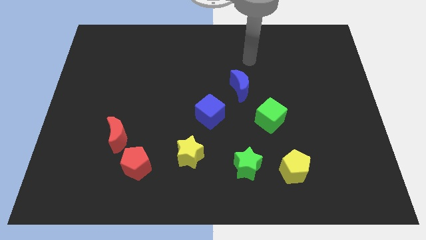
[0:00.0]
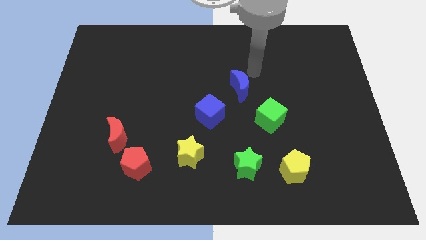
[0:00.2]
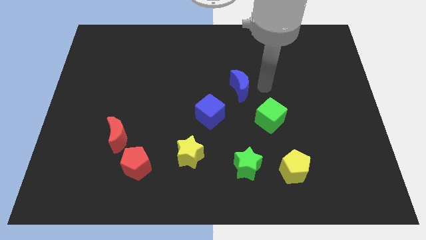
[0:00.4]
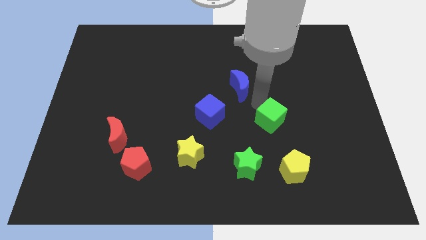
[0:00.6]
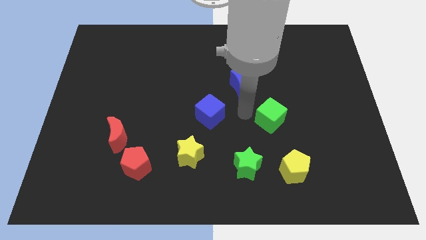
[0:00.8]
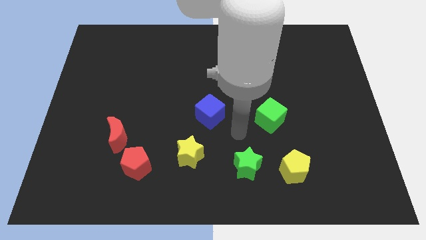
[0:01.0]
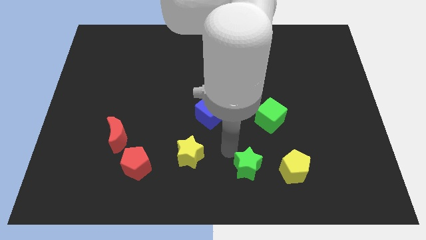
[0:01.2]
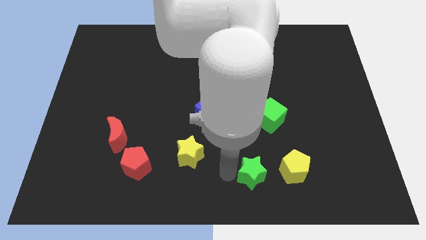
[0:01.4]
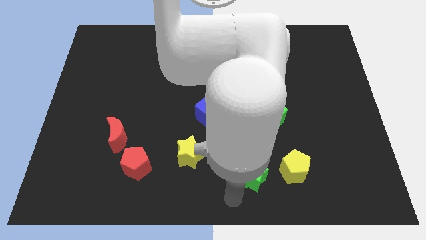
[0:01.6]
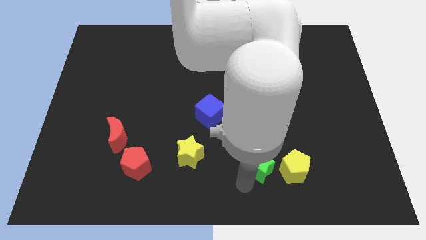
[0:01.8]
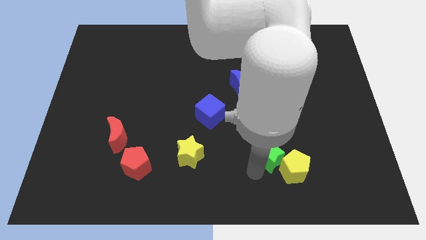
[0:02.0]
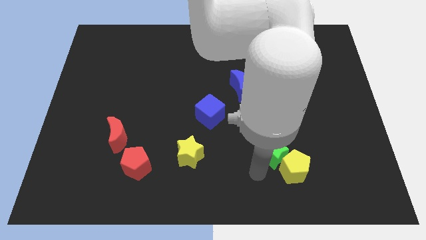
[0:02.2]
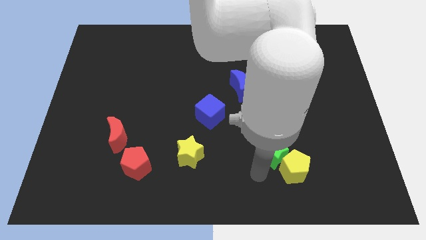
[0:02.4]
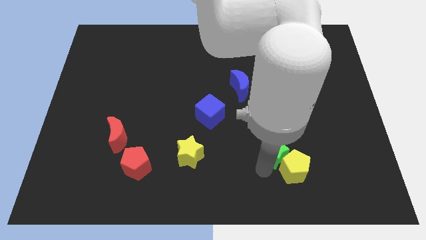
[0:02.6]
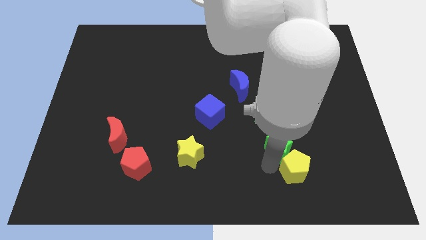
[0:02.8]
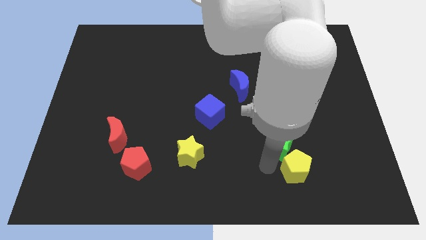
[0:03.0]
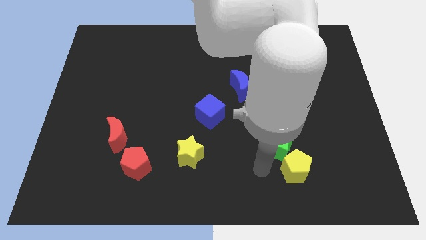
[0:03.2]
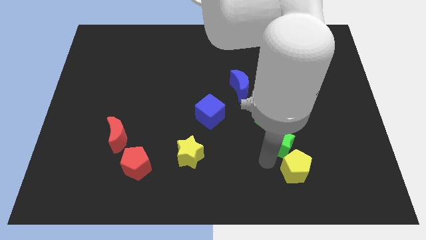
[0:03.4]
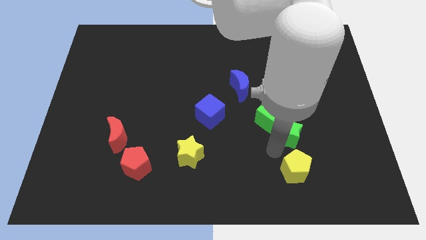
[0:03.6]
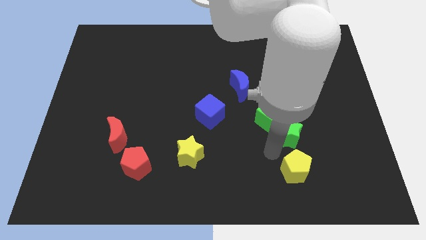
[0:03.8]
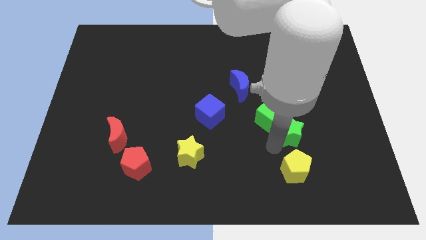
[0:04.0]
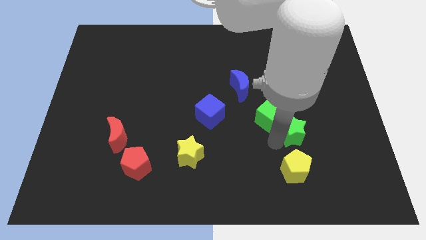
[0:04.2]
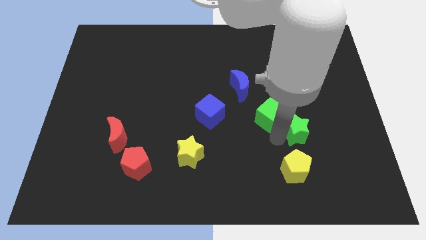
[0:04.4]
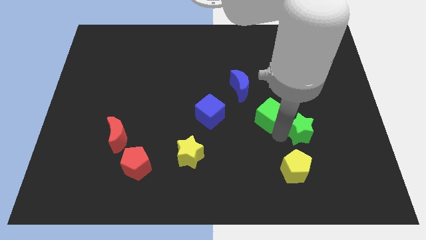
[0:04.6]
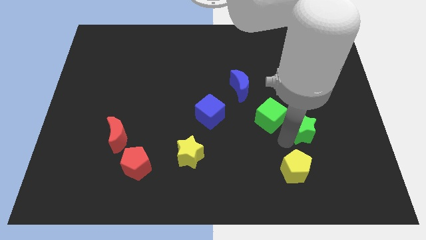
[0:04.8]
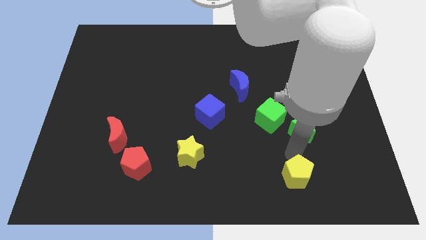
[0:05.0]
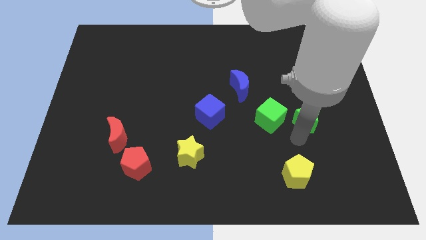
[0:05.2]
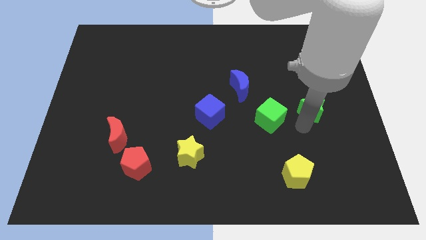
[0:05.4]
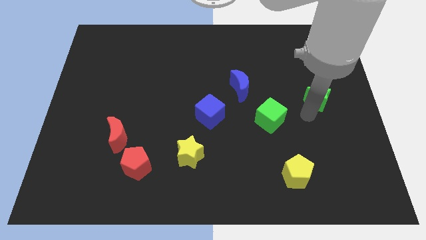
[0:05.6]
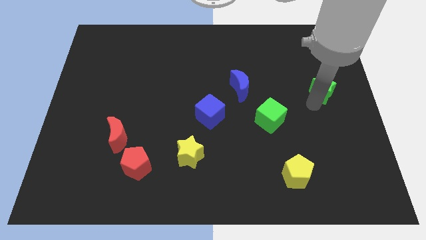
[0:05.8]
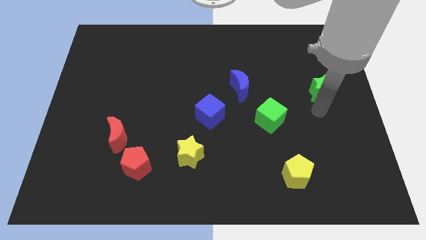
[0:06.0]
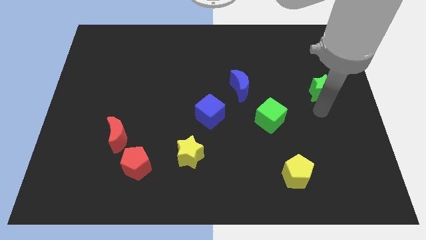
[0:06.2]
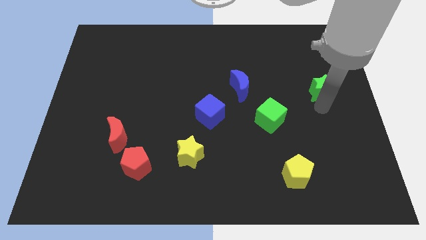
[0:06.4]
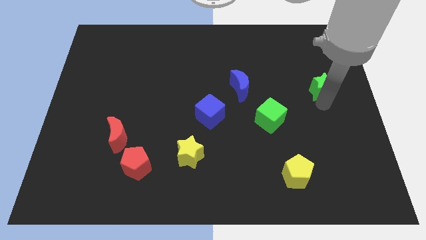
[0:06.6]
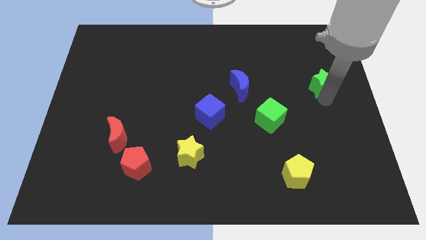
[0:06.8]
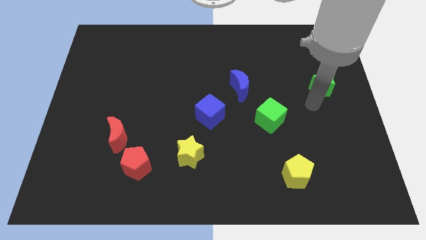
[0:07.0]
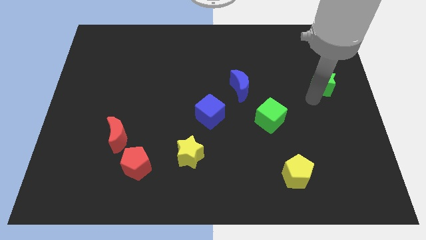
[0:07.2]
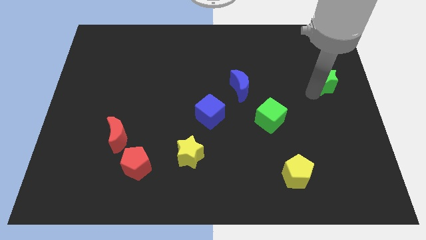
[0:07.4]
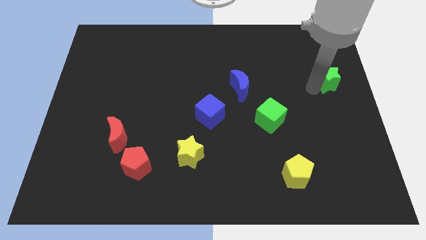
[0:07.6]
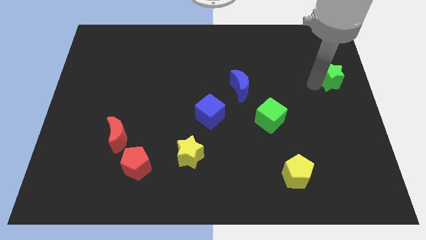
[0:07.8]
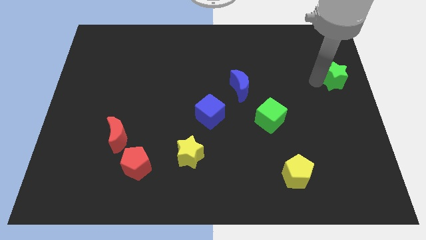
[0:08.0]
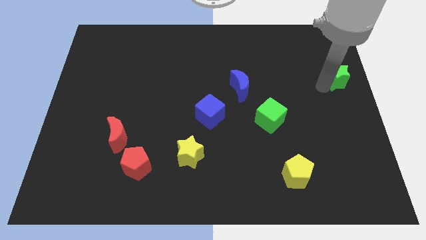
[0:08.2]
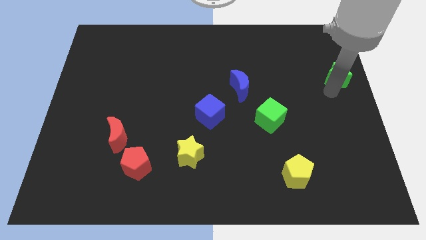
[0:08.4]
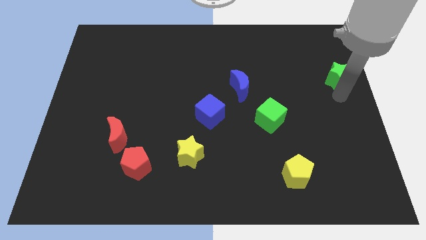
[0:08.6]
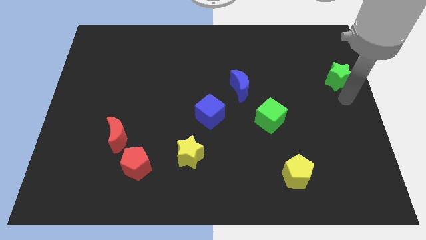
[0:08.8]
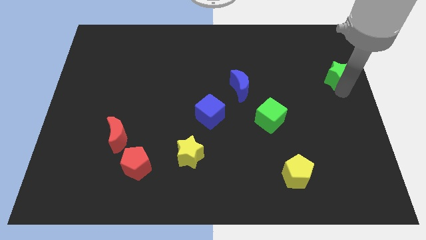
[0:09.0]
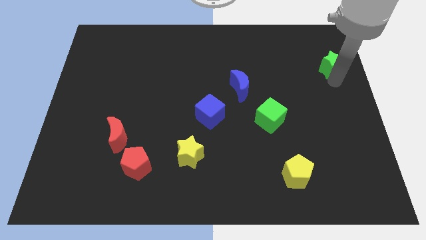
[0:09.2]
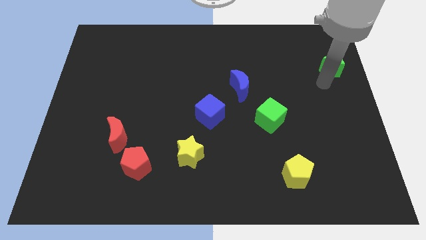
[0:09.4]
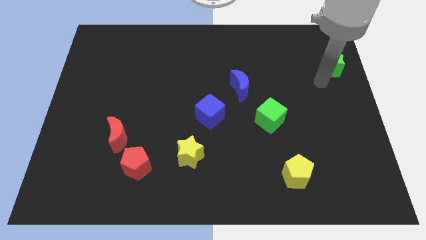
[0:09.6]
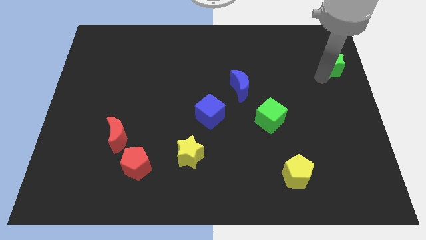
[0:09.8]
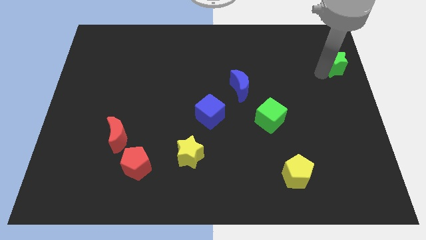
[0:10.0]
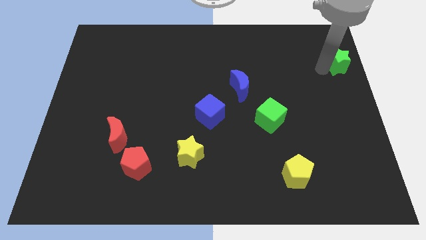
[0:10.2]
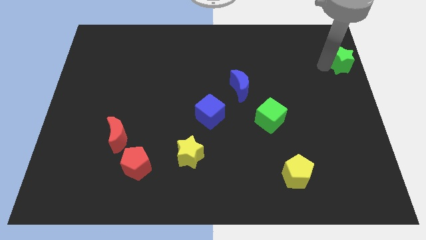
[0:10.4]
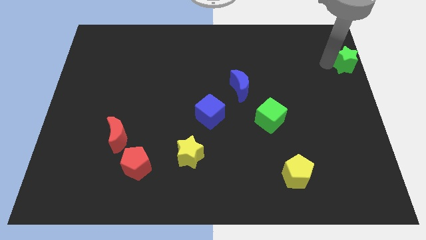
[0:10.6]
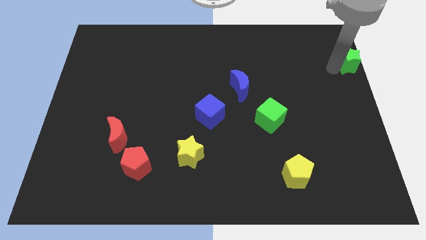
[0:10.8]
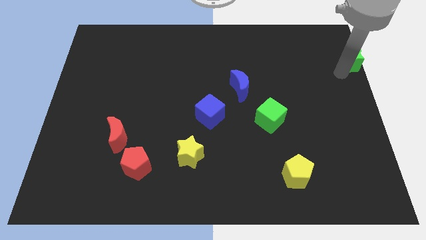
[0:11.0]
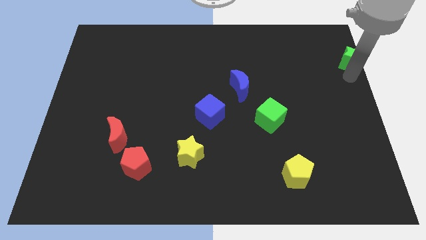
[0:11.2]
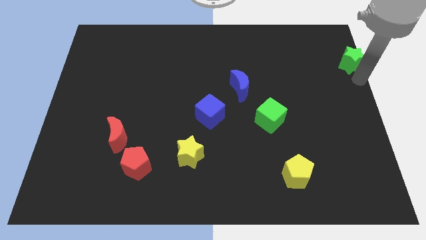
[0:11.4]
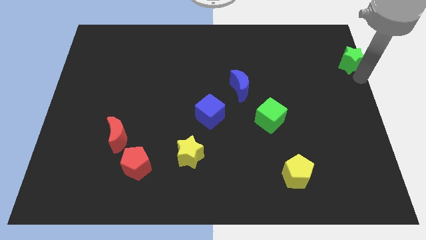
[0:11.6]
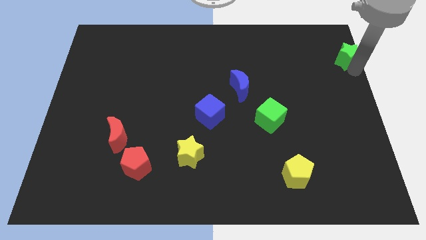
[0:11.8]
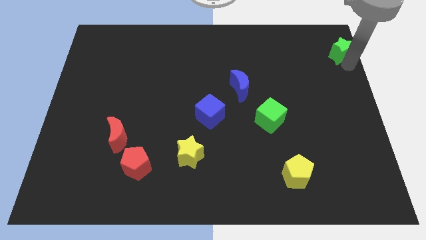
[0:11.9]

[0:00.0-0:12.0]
move the green star to the top right of the board
